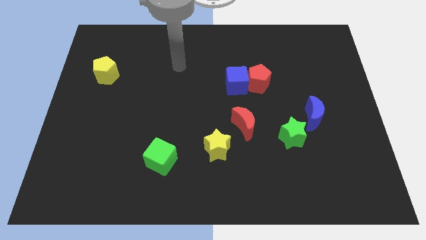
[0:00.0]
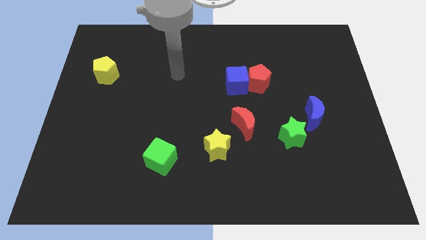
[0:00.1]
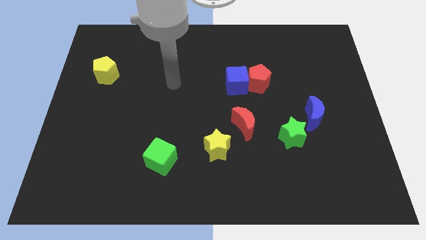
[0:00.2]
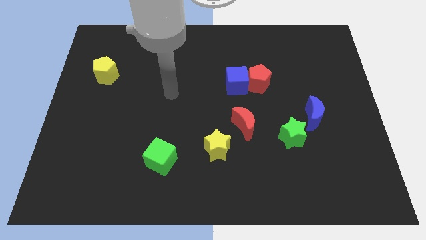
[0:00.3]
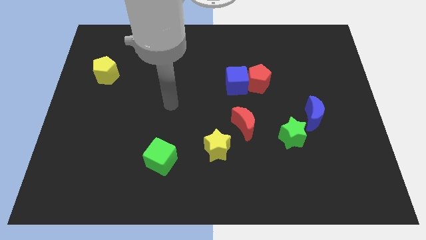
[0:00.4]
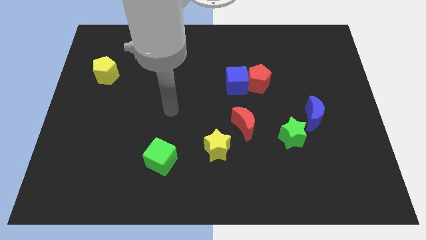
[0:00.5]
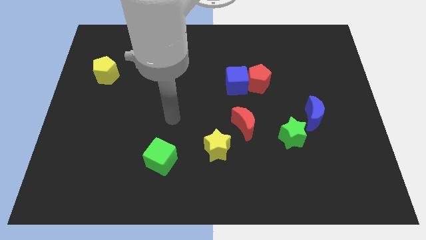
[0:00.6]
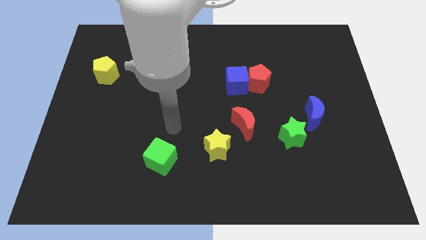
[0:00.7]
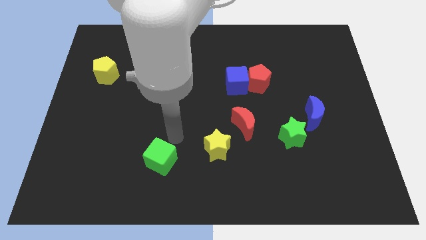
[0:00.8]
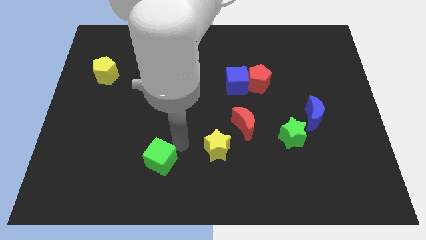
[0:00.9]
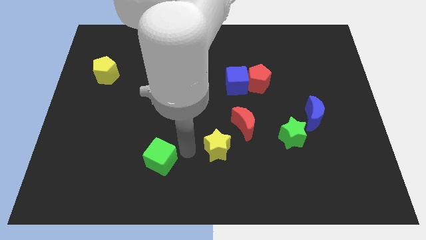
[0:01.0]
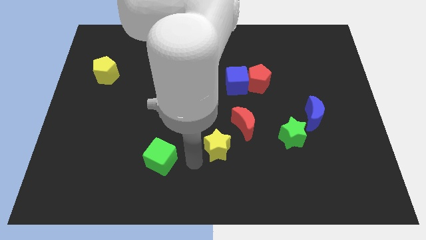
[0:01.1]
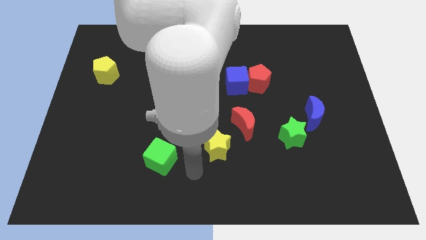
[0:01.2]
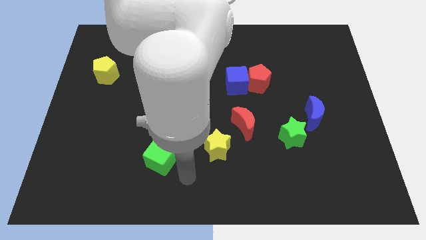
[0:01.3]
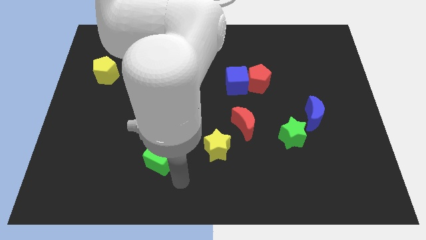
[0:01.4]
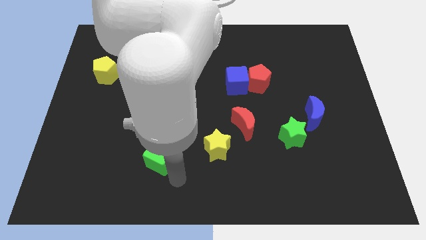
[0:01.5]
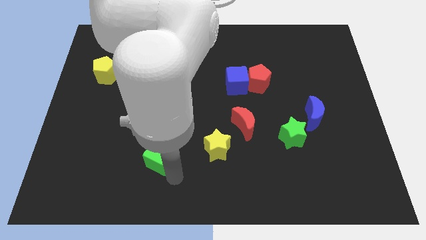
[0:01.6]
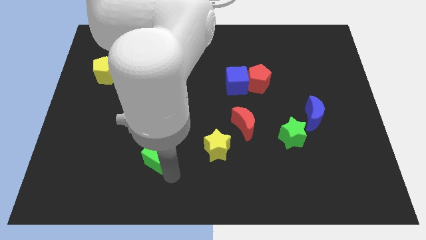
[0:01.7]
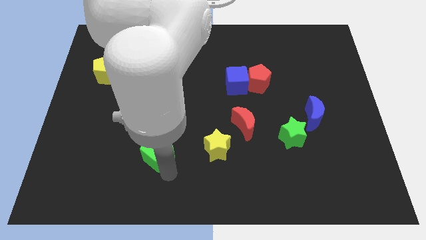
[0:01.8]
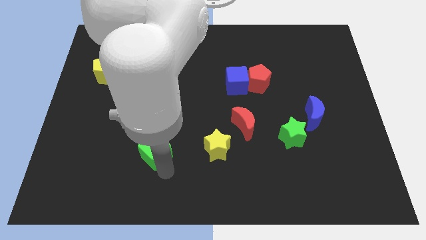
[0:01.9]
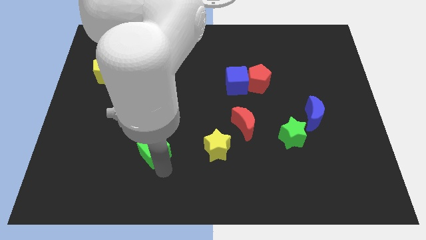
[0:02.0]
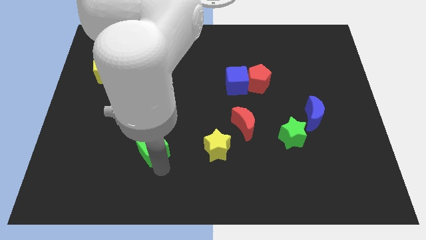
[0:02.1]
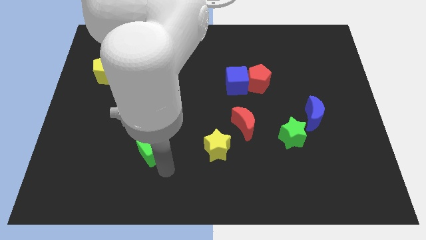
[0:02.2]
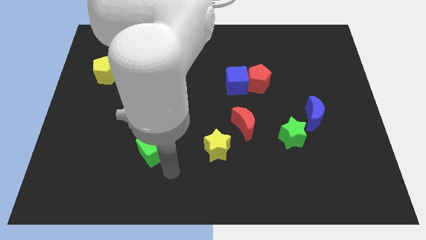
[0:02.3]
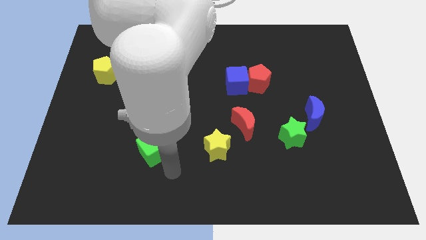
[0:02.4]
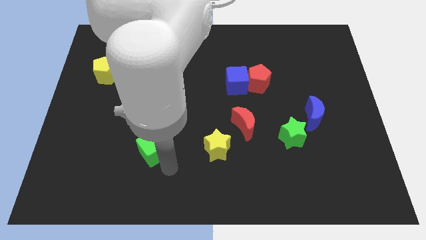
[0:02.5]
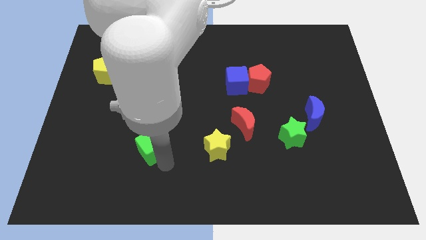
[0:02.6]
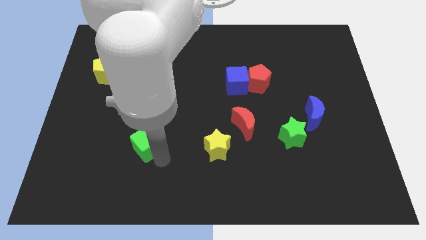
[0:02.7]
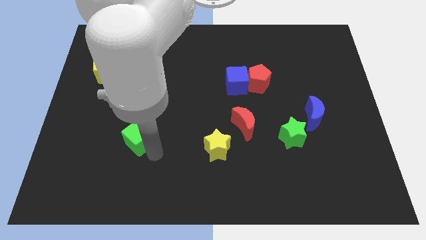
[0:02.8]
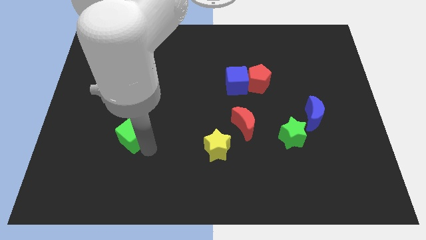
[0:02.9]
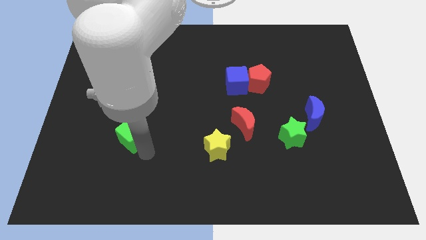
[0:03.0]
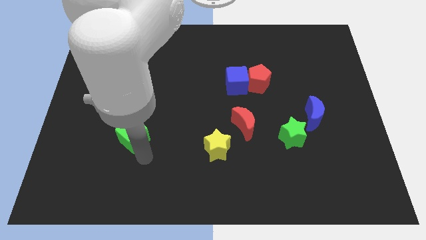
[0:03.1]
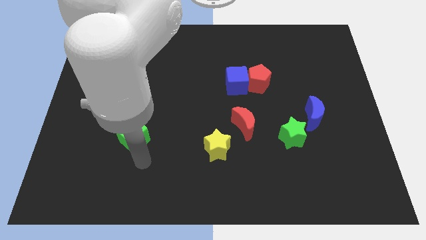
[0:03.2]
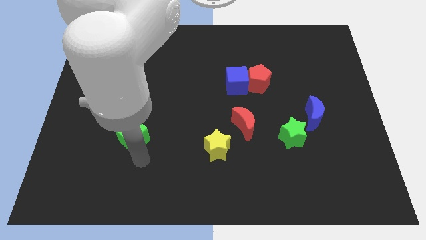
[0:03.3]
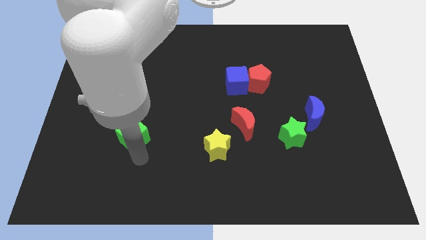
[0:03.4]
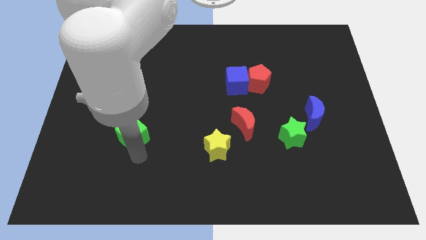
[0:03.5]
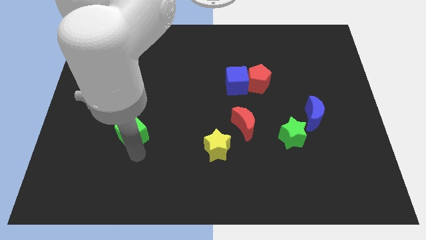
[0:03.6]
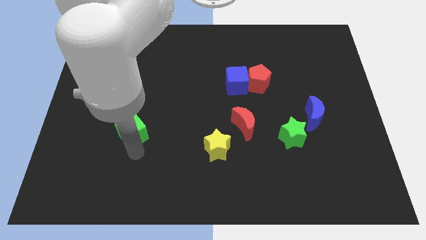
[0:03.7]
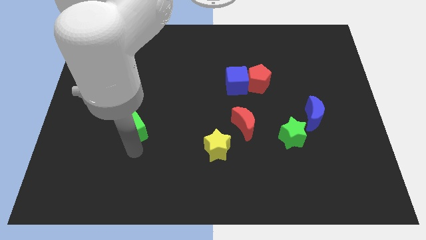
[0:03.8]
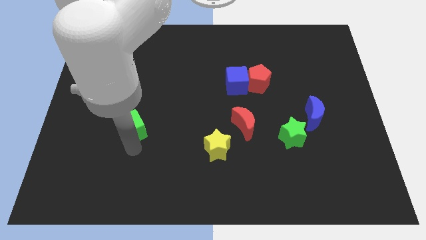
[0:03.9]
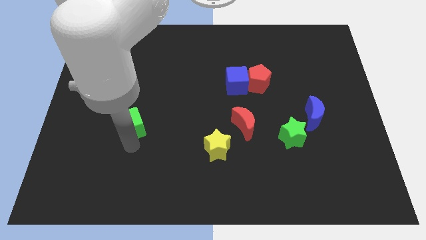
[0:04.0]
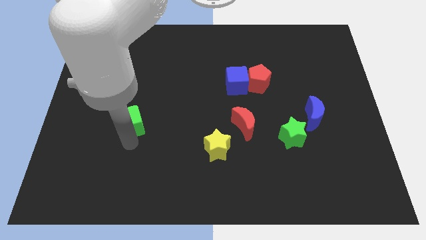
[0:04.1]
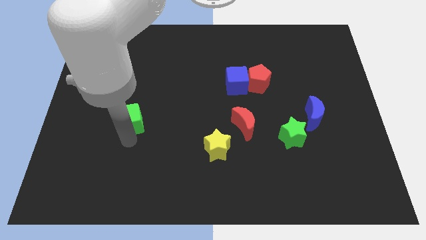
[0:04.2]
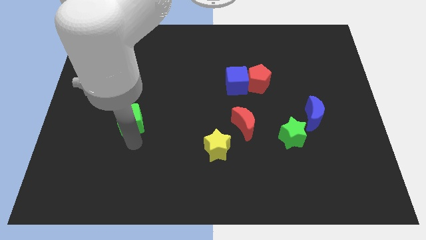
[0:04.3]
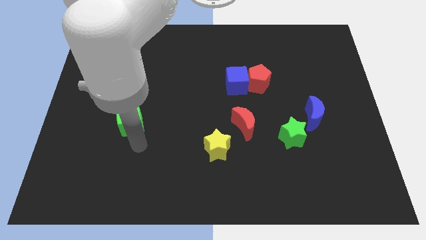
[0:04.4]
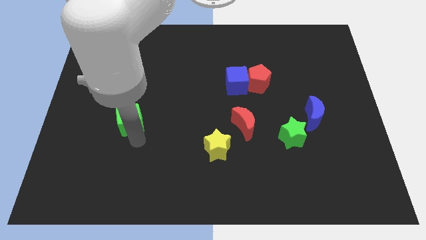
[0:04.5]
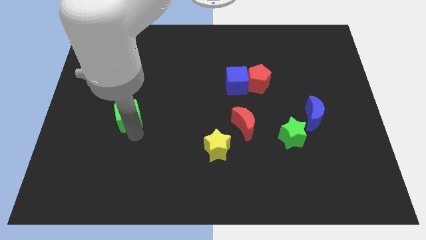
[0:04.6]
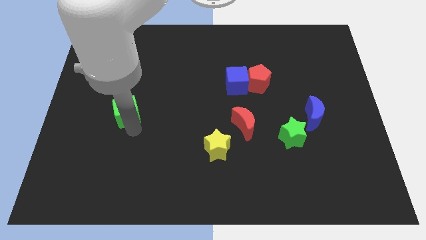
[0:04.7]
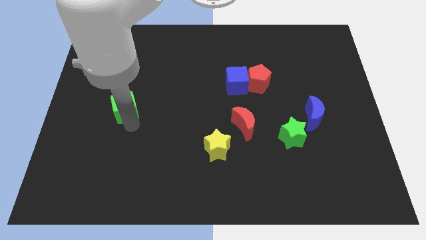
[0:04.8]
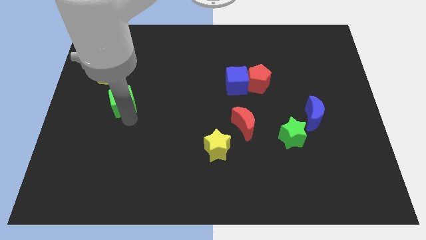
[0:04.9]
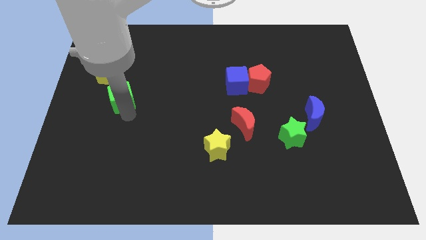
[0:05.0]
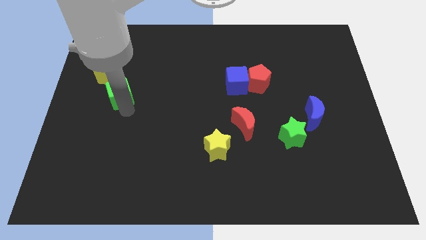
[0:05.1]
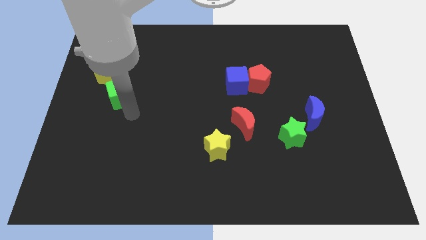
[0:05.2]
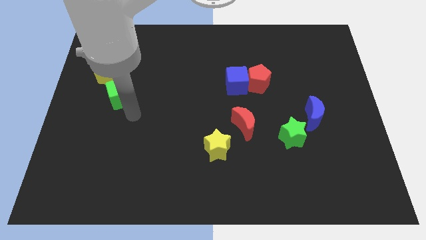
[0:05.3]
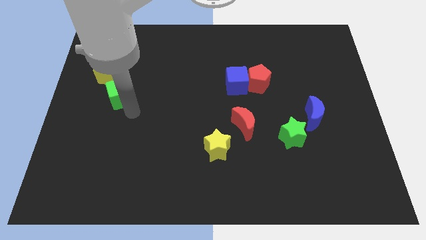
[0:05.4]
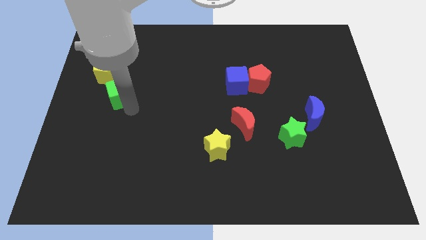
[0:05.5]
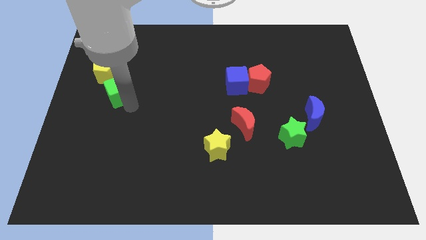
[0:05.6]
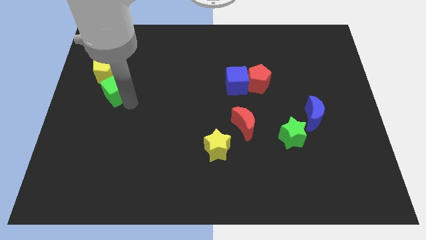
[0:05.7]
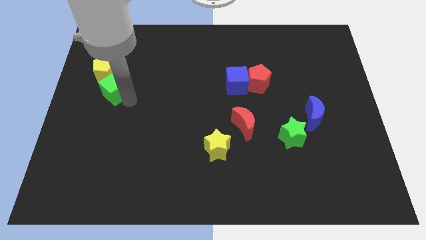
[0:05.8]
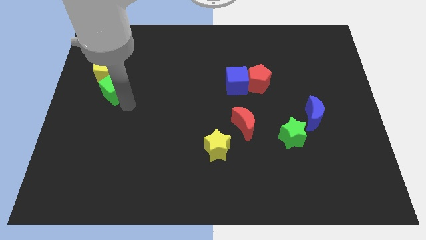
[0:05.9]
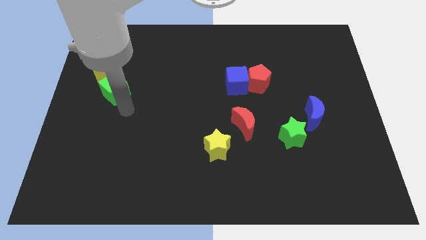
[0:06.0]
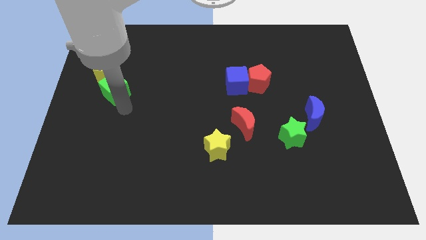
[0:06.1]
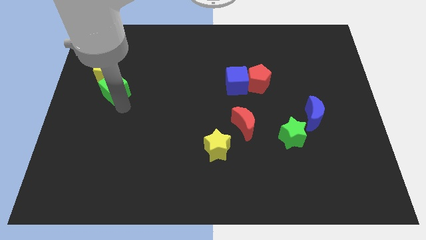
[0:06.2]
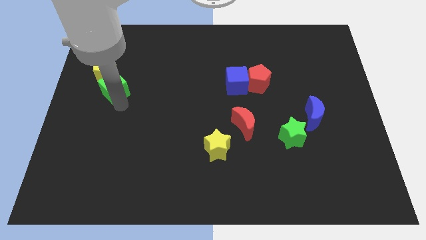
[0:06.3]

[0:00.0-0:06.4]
move the green cube close to the yellow pentagon

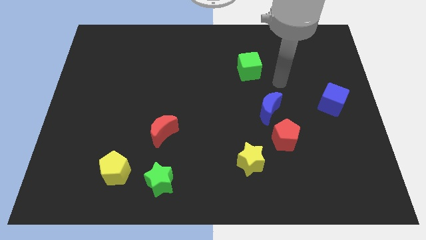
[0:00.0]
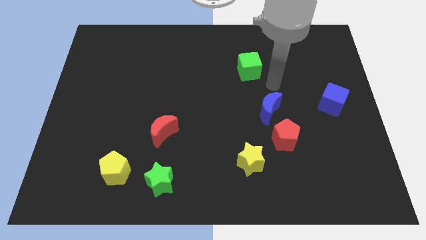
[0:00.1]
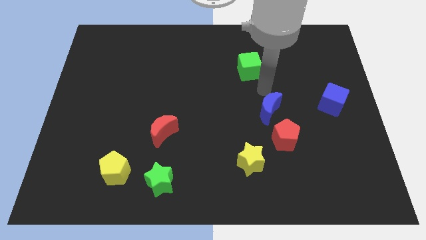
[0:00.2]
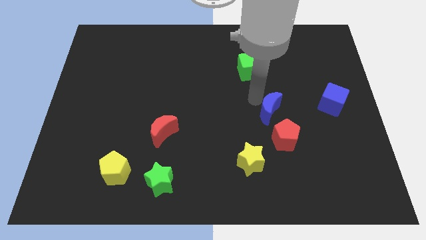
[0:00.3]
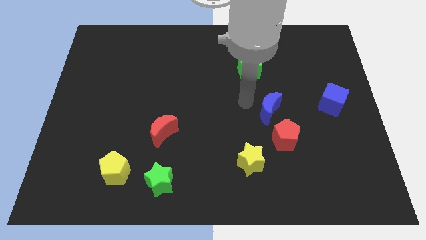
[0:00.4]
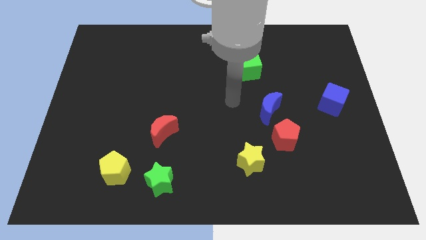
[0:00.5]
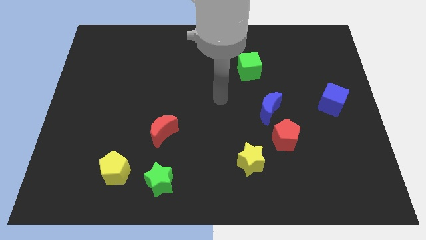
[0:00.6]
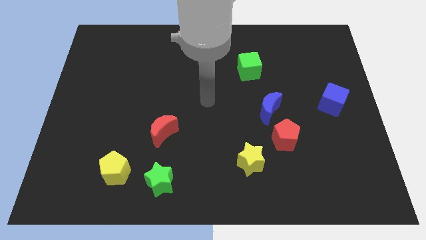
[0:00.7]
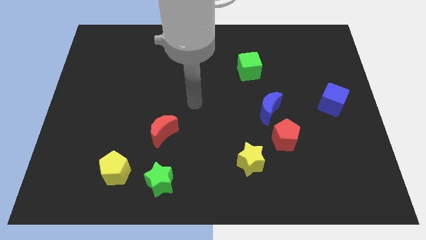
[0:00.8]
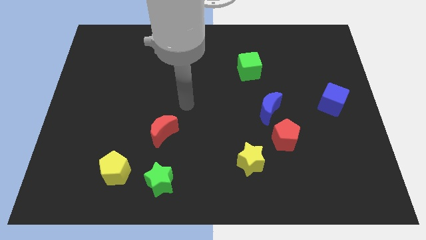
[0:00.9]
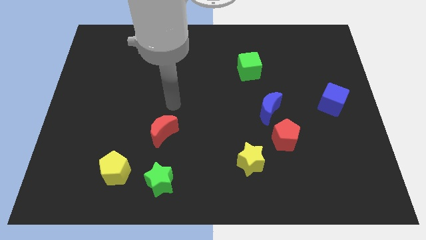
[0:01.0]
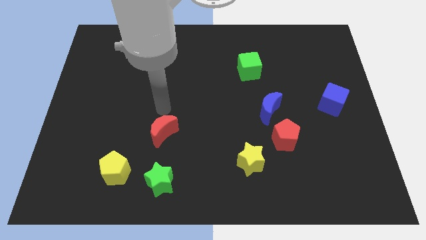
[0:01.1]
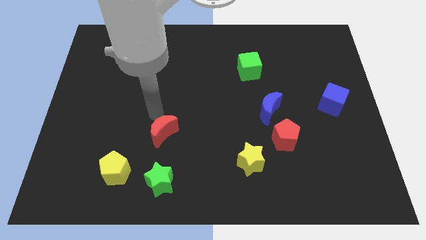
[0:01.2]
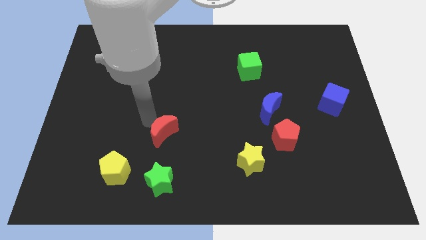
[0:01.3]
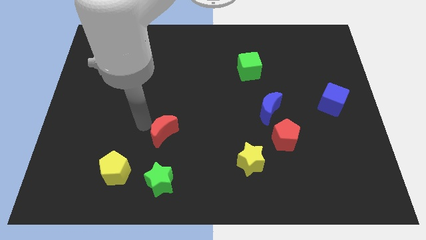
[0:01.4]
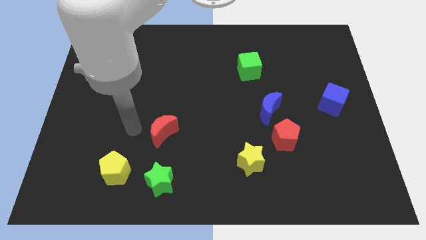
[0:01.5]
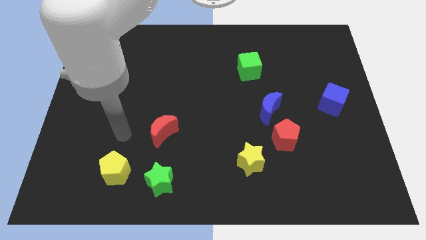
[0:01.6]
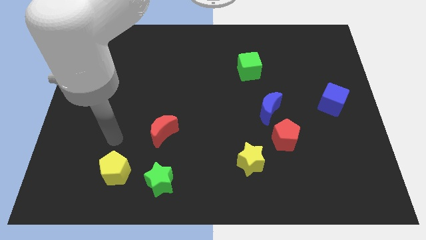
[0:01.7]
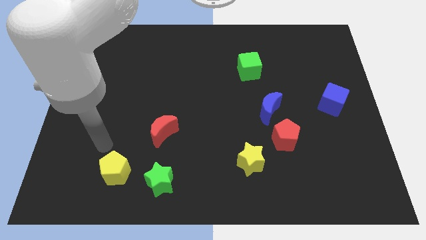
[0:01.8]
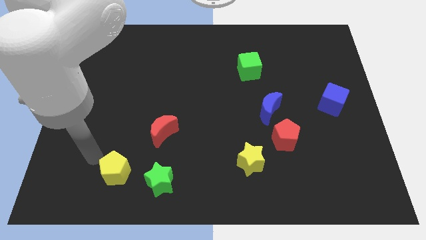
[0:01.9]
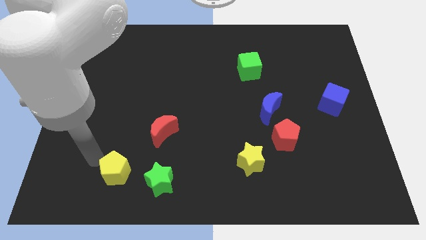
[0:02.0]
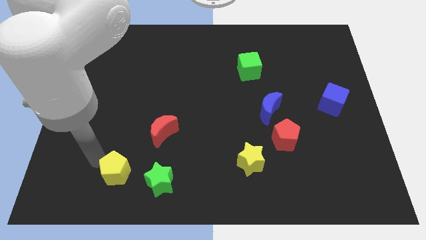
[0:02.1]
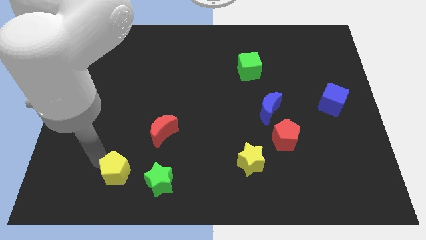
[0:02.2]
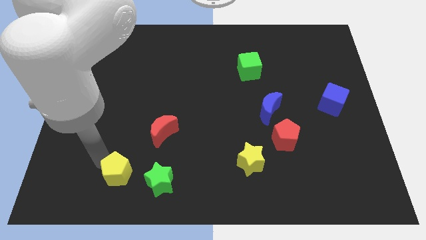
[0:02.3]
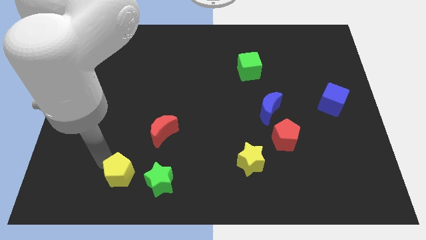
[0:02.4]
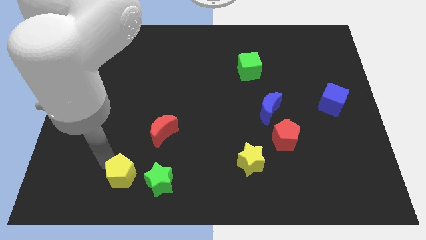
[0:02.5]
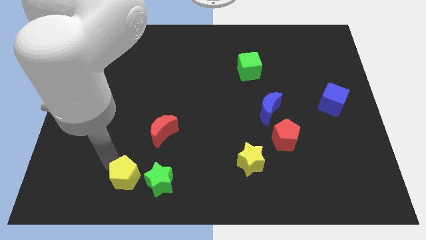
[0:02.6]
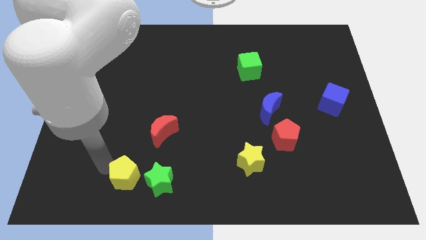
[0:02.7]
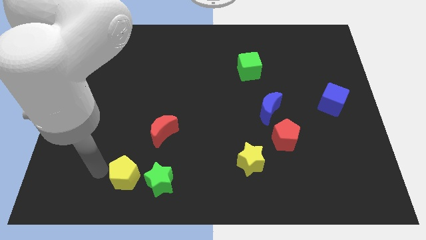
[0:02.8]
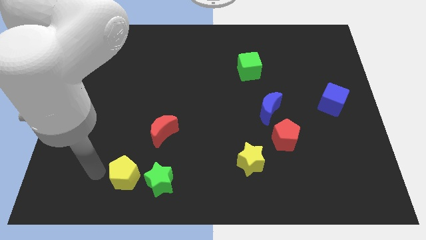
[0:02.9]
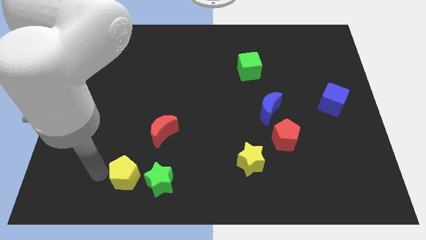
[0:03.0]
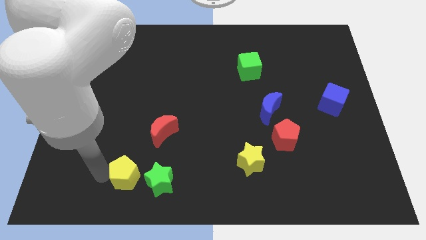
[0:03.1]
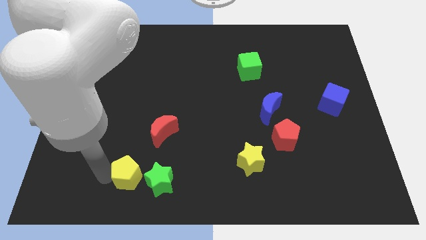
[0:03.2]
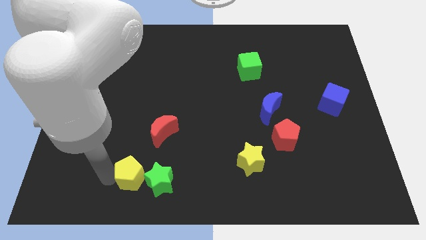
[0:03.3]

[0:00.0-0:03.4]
push the yellow pentagon close to the green star
